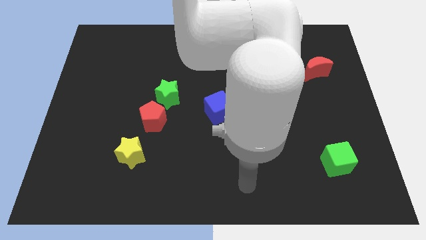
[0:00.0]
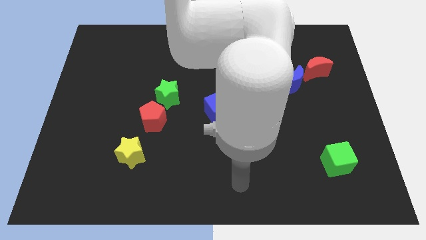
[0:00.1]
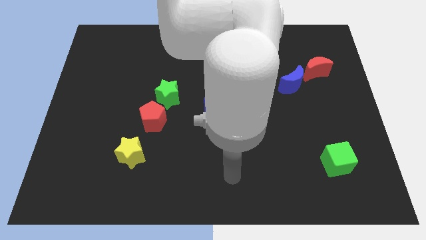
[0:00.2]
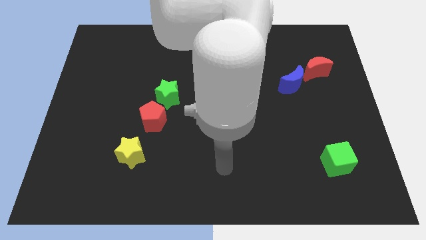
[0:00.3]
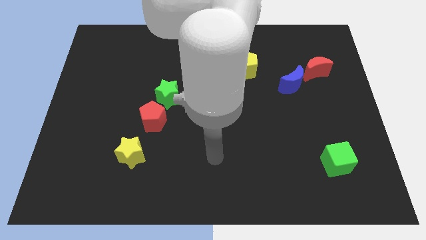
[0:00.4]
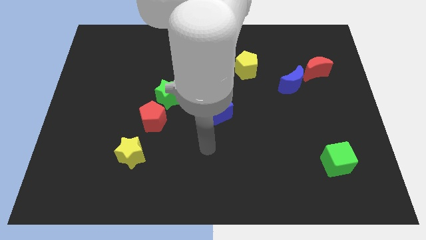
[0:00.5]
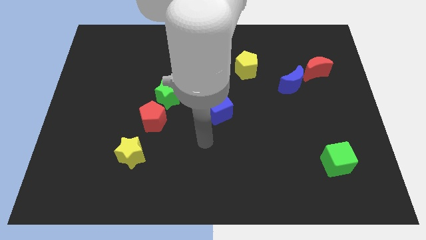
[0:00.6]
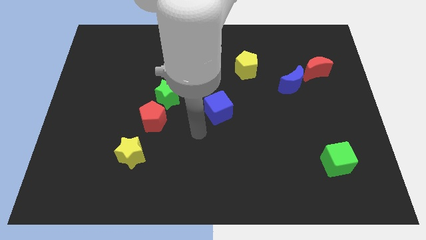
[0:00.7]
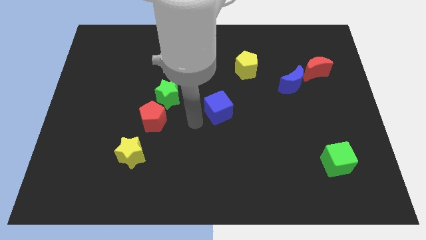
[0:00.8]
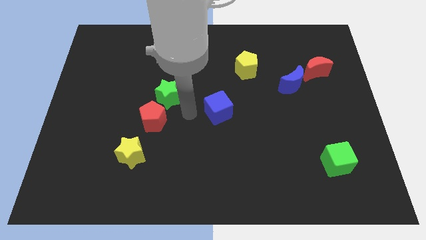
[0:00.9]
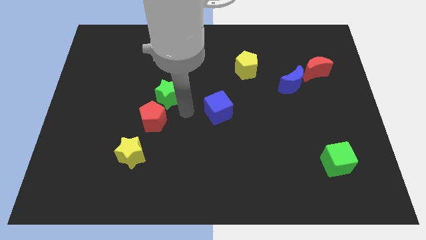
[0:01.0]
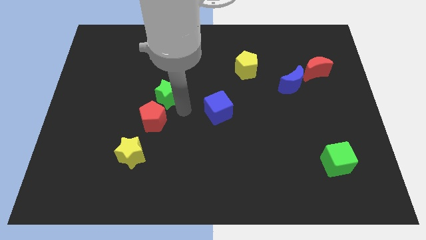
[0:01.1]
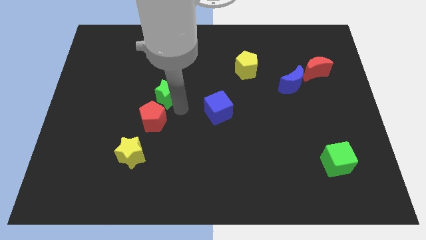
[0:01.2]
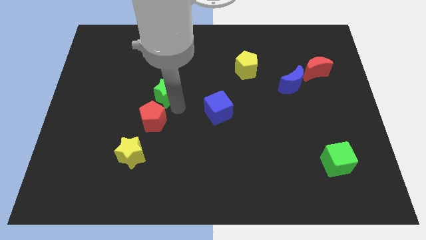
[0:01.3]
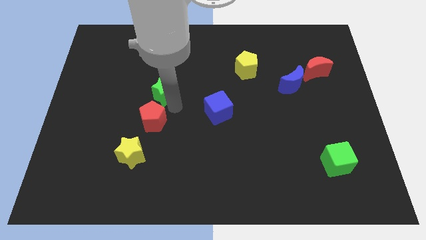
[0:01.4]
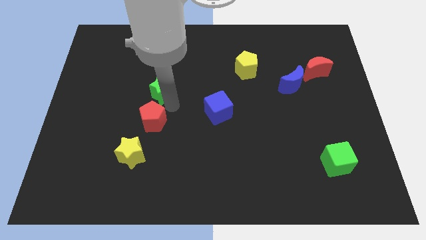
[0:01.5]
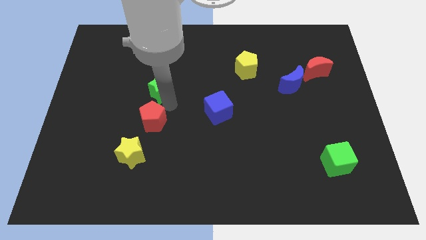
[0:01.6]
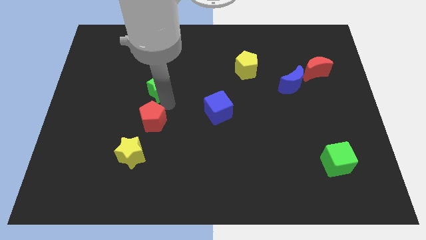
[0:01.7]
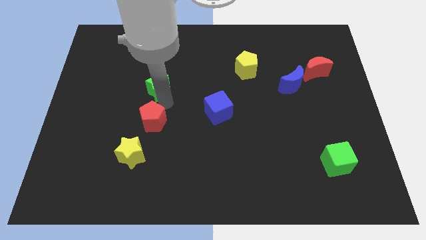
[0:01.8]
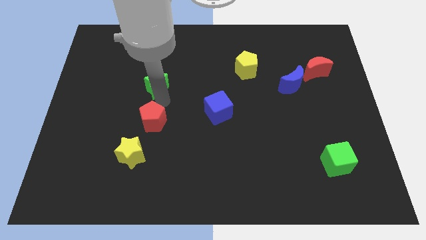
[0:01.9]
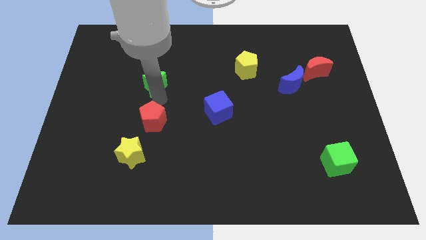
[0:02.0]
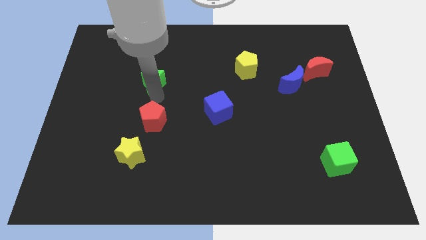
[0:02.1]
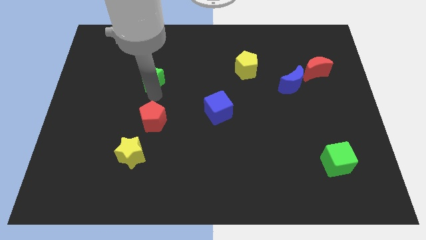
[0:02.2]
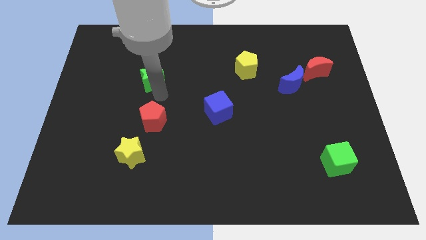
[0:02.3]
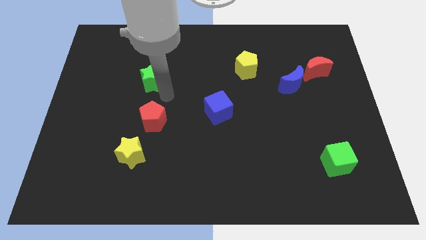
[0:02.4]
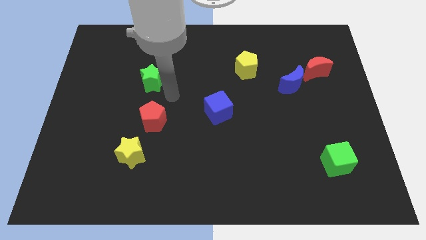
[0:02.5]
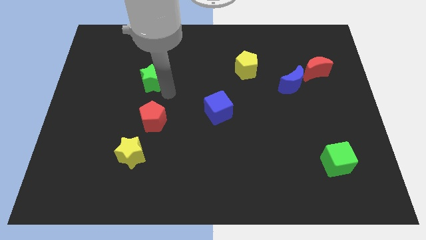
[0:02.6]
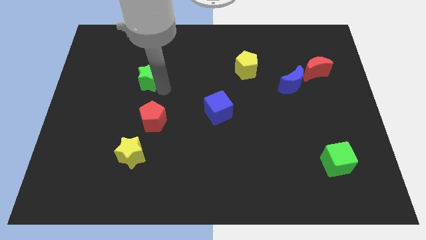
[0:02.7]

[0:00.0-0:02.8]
push the green star up and then to the left somewhat

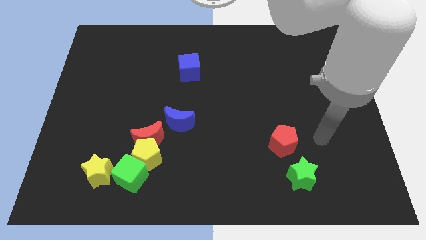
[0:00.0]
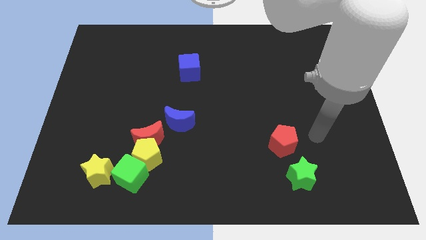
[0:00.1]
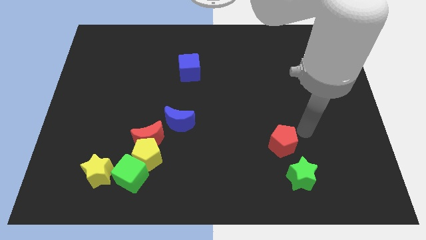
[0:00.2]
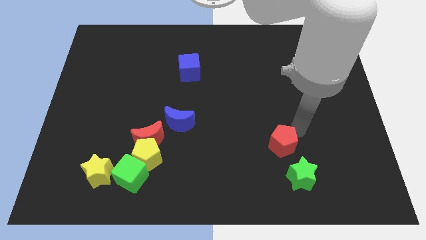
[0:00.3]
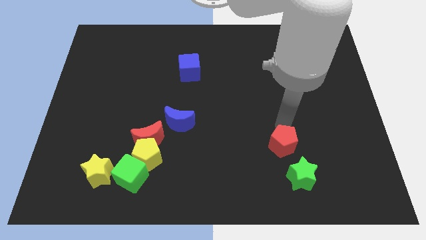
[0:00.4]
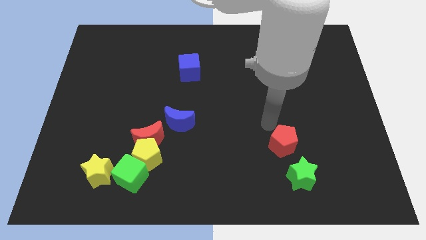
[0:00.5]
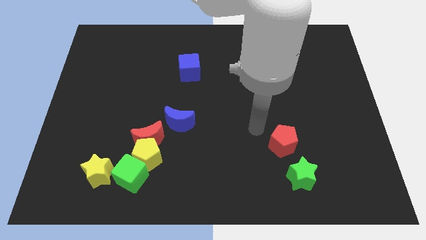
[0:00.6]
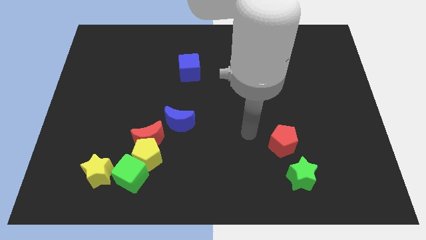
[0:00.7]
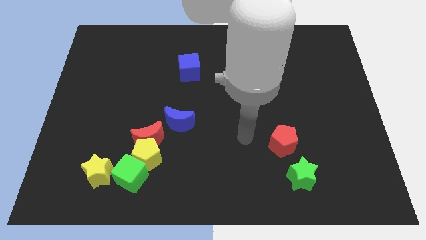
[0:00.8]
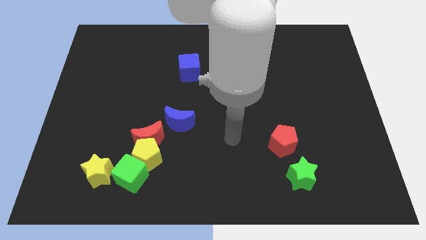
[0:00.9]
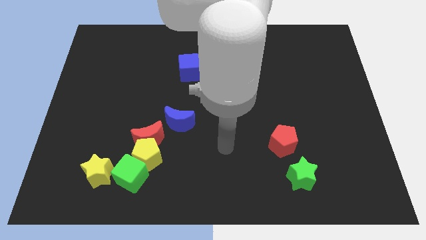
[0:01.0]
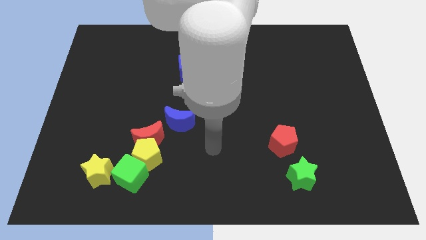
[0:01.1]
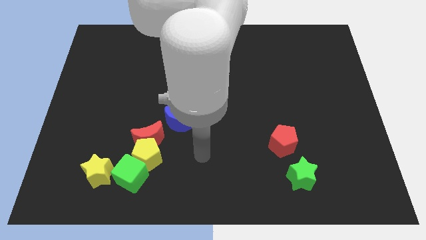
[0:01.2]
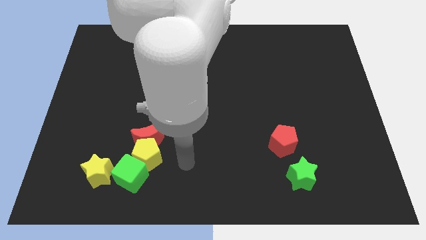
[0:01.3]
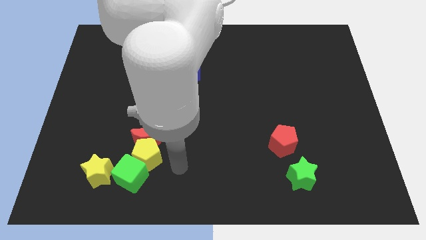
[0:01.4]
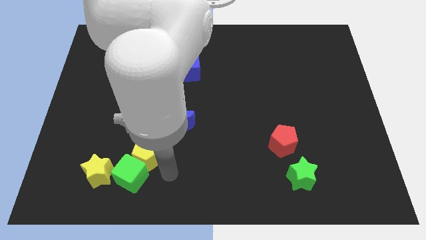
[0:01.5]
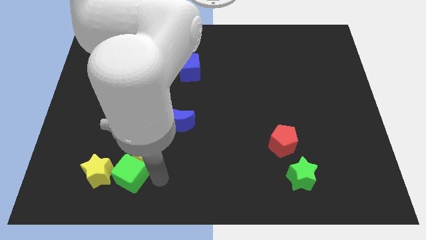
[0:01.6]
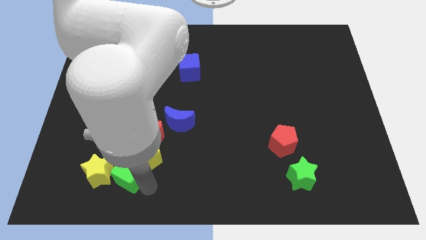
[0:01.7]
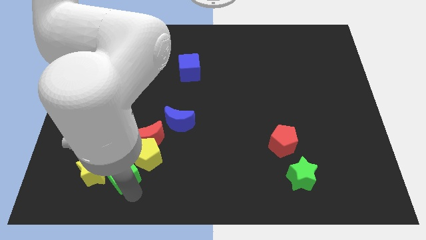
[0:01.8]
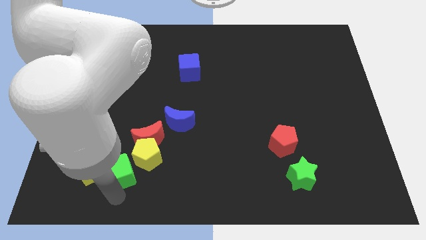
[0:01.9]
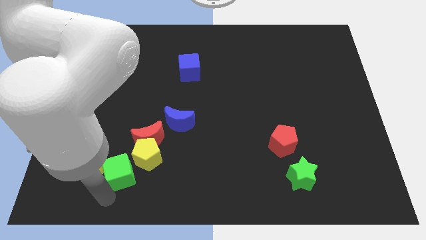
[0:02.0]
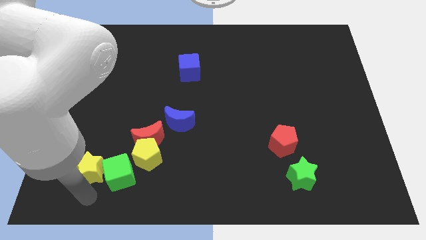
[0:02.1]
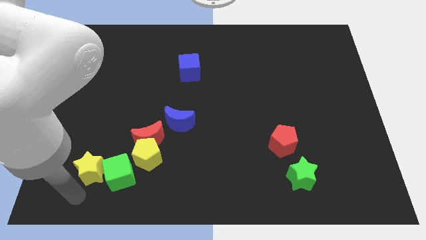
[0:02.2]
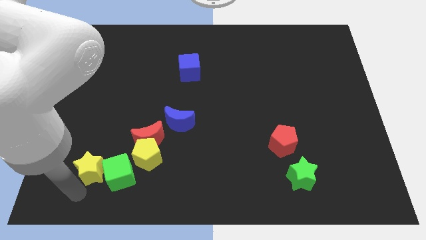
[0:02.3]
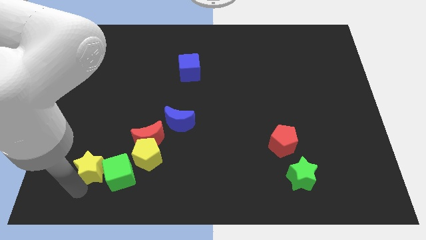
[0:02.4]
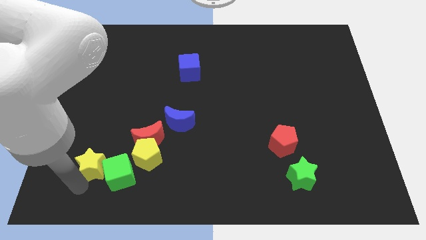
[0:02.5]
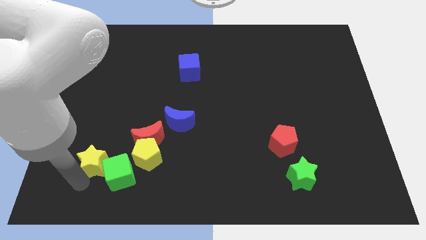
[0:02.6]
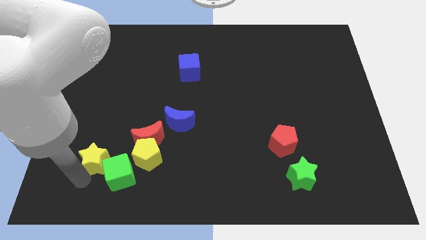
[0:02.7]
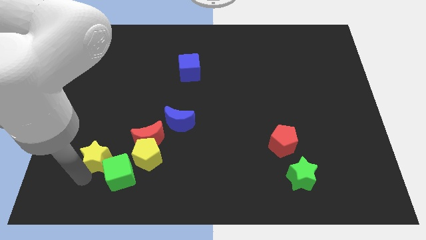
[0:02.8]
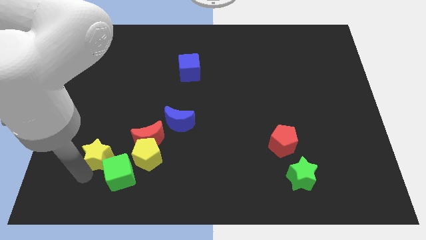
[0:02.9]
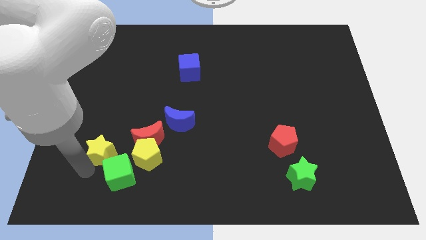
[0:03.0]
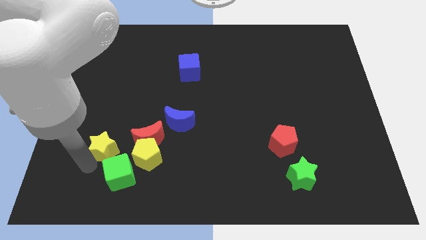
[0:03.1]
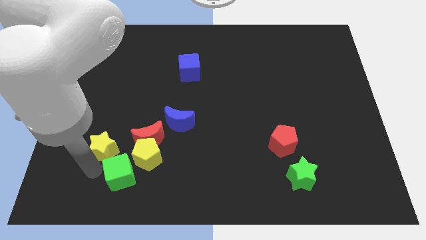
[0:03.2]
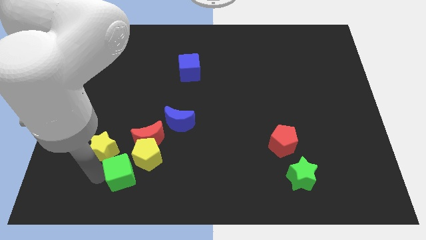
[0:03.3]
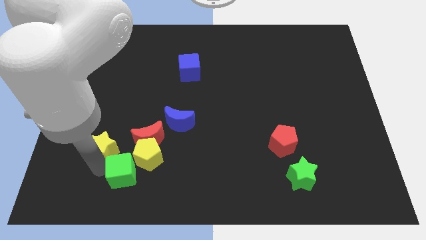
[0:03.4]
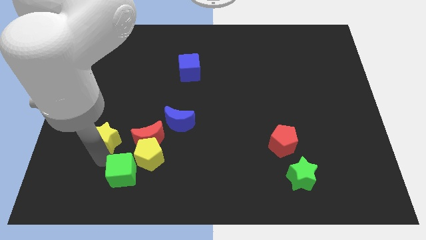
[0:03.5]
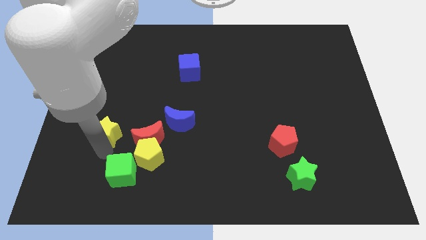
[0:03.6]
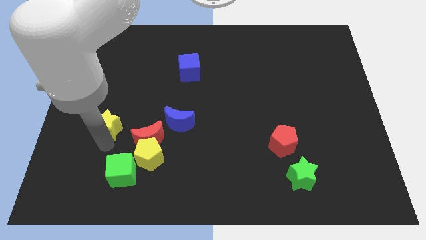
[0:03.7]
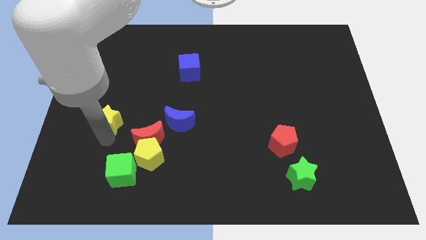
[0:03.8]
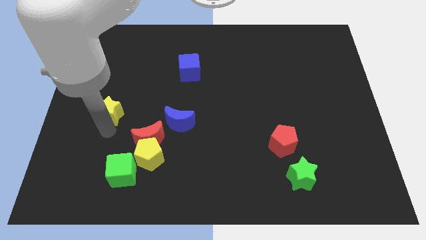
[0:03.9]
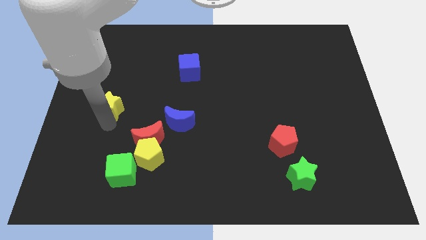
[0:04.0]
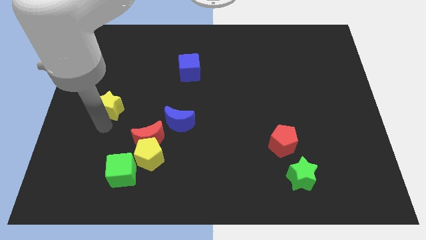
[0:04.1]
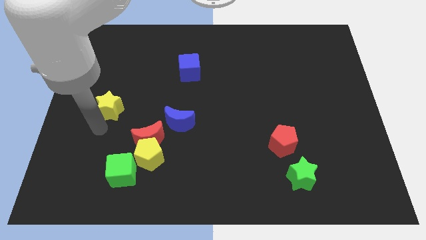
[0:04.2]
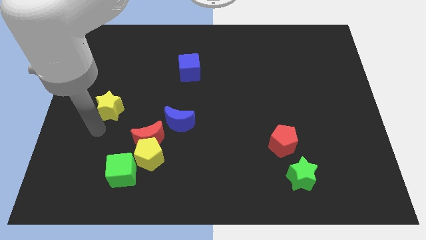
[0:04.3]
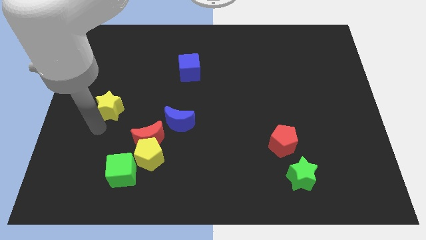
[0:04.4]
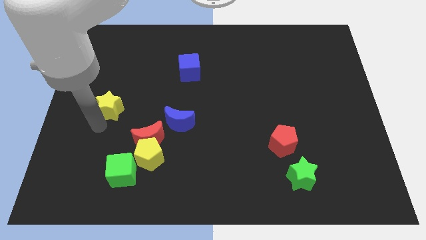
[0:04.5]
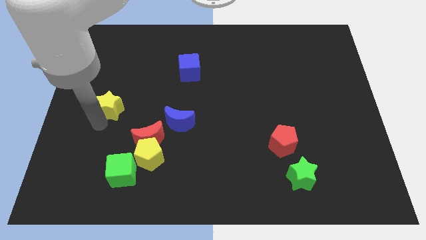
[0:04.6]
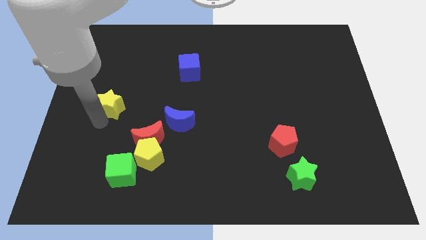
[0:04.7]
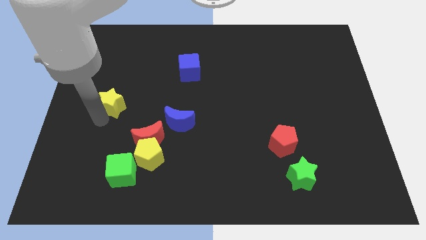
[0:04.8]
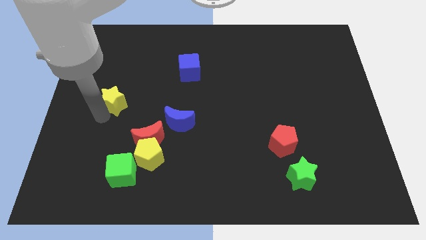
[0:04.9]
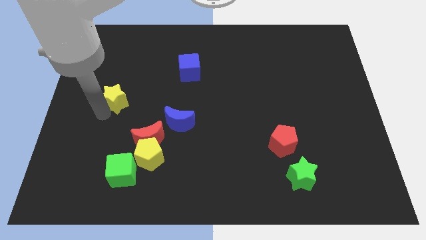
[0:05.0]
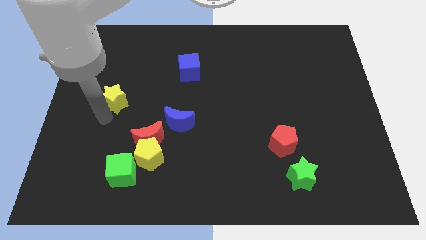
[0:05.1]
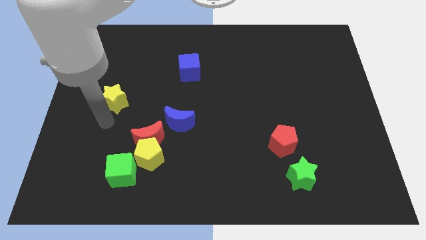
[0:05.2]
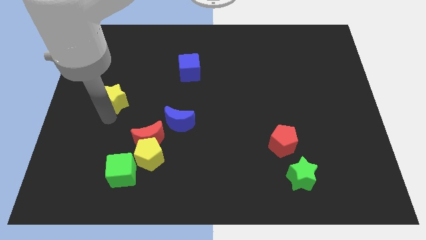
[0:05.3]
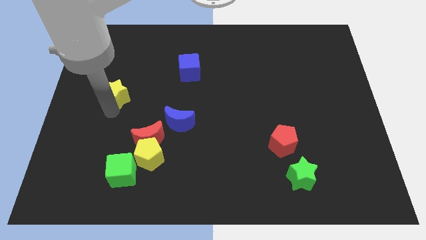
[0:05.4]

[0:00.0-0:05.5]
move the yellow star upwards
